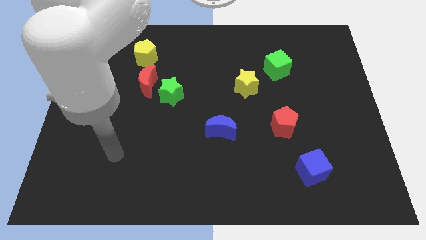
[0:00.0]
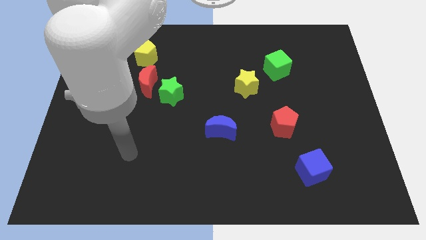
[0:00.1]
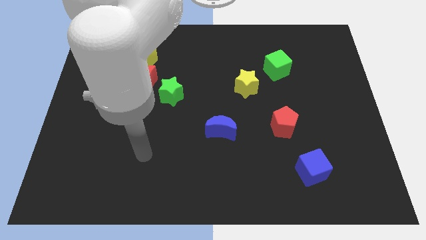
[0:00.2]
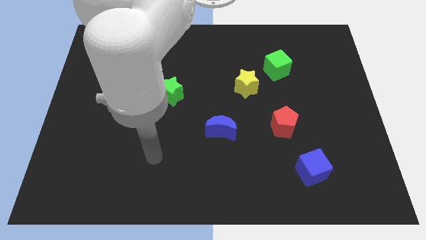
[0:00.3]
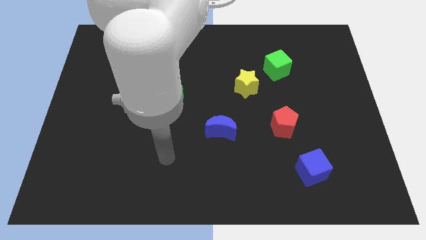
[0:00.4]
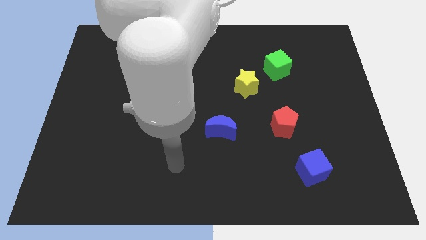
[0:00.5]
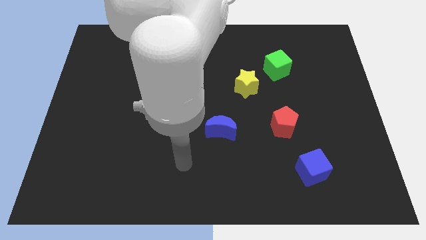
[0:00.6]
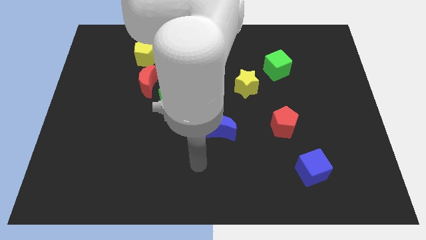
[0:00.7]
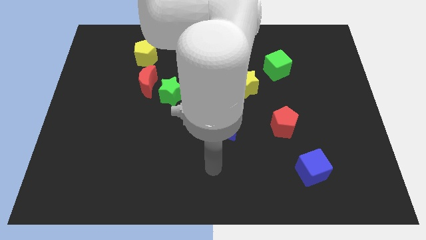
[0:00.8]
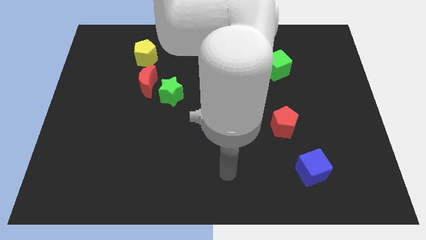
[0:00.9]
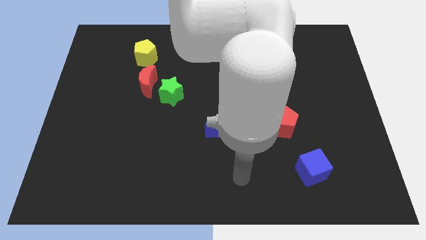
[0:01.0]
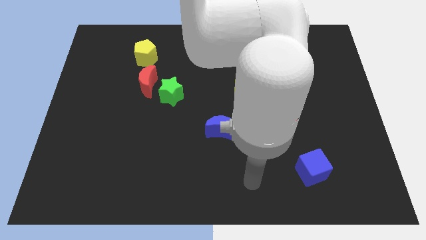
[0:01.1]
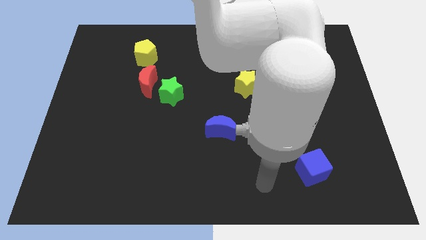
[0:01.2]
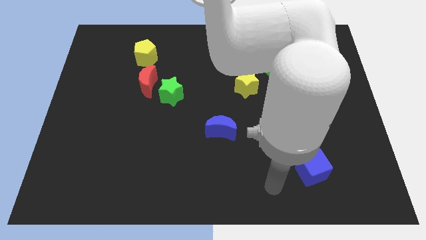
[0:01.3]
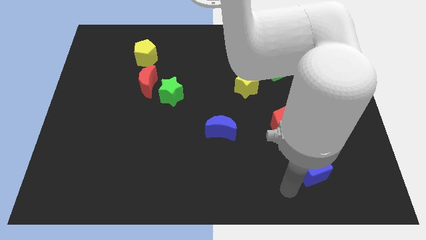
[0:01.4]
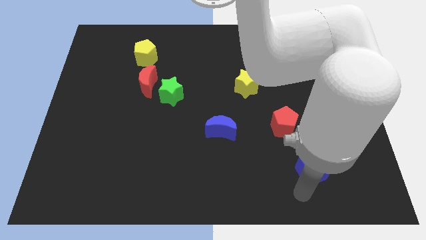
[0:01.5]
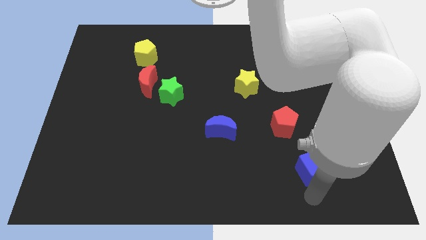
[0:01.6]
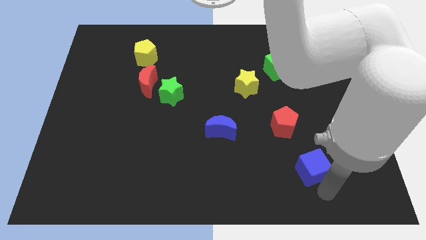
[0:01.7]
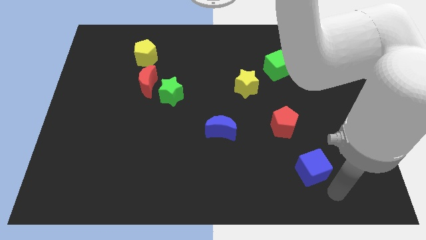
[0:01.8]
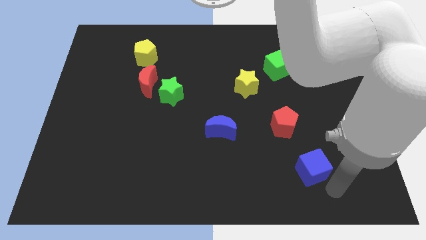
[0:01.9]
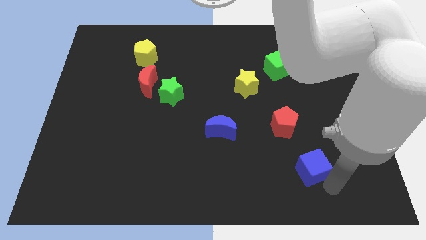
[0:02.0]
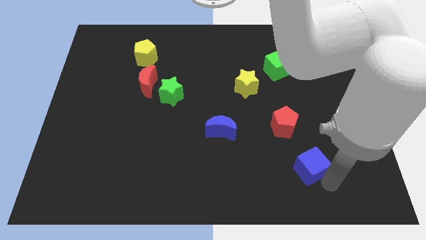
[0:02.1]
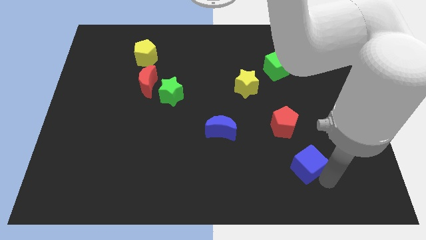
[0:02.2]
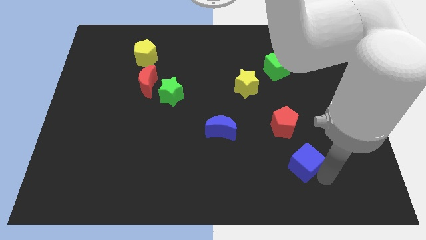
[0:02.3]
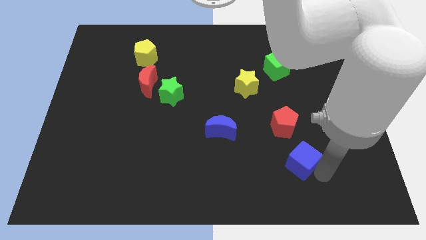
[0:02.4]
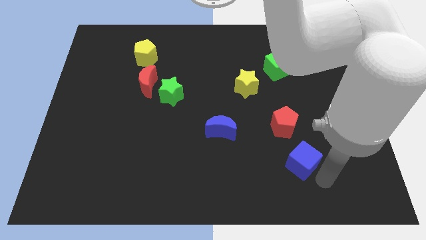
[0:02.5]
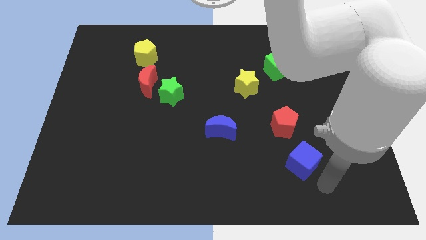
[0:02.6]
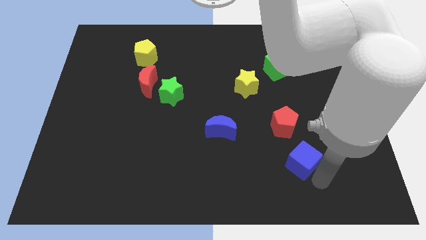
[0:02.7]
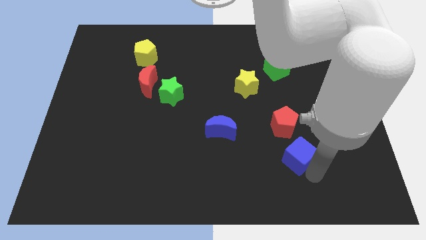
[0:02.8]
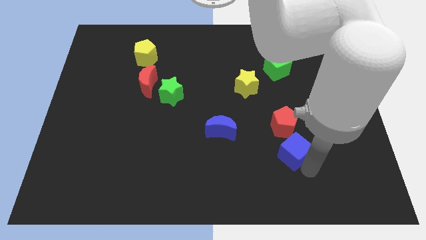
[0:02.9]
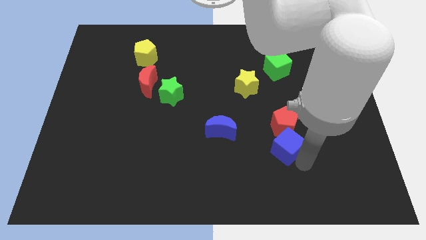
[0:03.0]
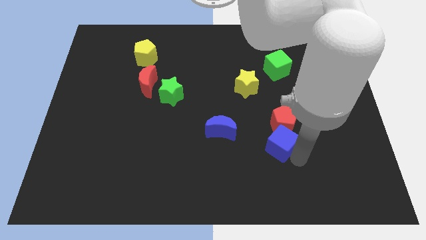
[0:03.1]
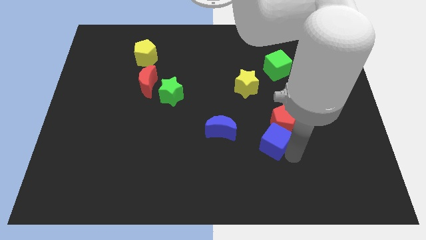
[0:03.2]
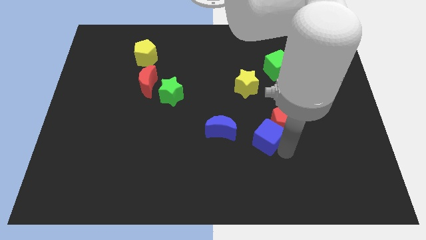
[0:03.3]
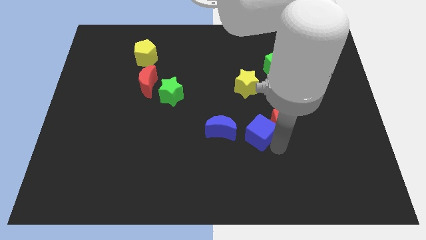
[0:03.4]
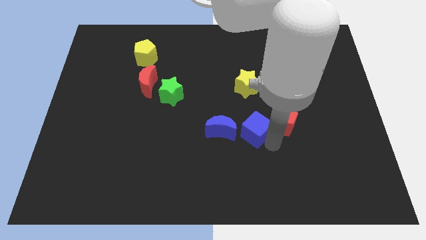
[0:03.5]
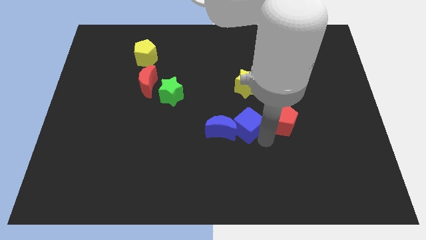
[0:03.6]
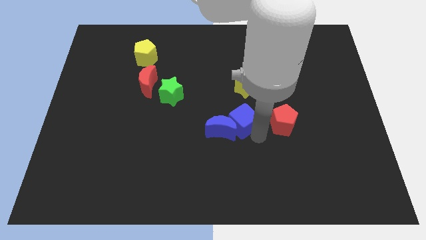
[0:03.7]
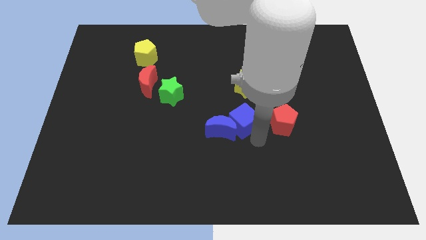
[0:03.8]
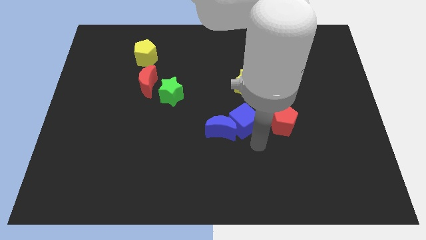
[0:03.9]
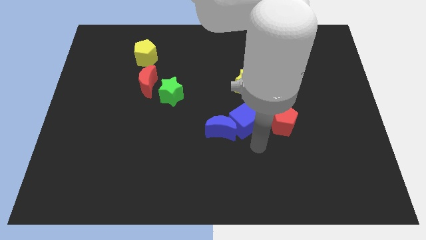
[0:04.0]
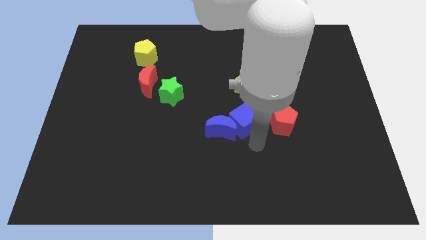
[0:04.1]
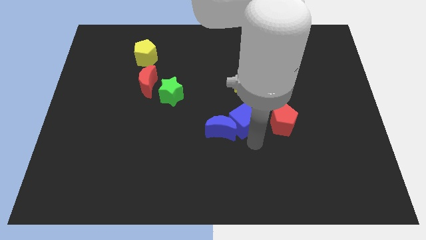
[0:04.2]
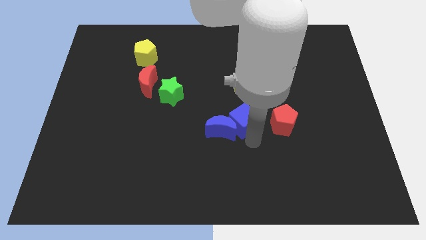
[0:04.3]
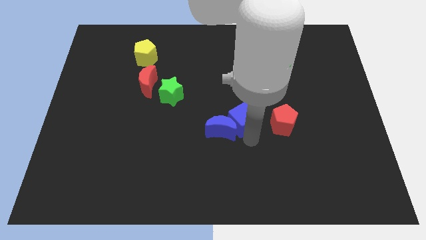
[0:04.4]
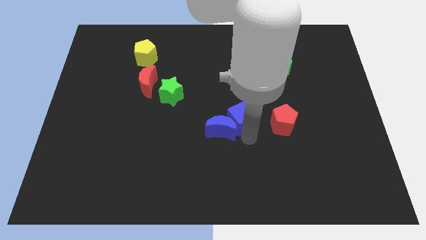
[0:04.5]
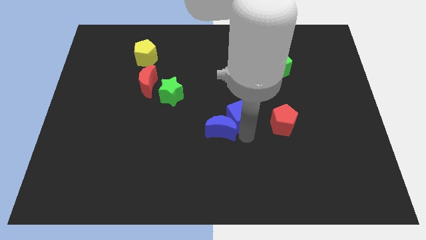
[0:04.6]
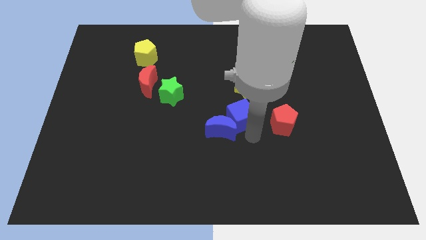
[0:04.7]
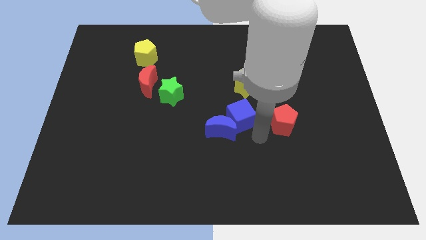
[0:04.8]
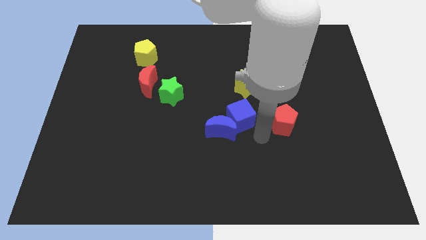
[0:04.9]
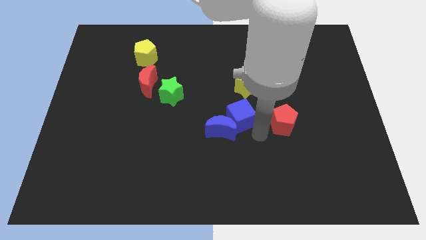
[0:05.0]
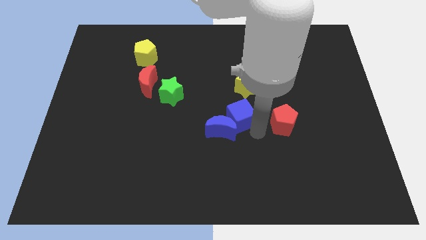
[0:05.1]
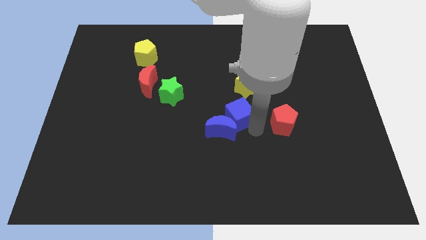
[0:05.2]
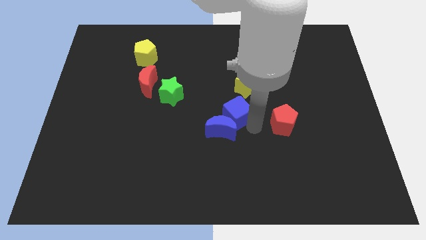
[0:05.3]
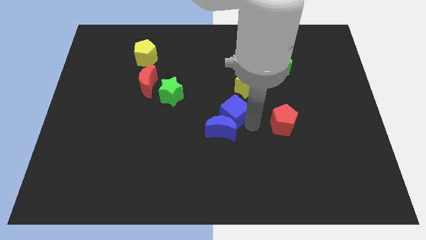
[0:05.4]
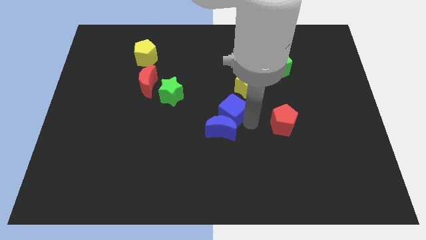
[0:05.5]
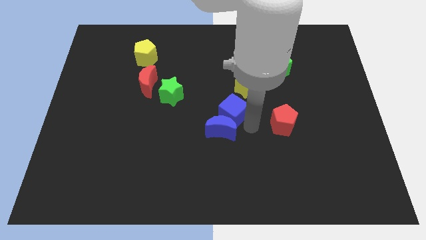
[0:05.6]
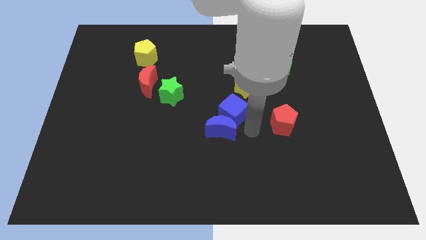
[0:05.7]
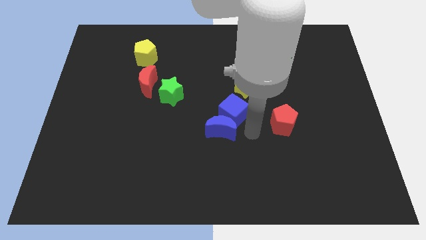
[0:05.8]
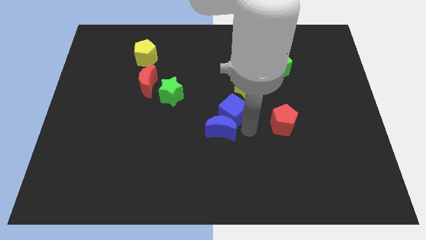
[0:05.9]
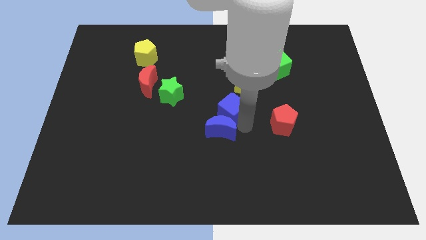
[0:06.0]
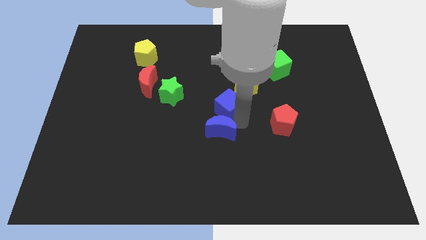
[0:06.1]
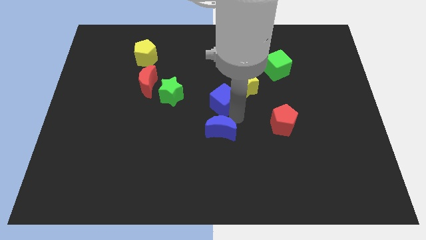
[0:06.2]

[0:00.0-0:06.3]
push the blue cube to the right of the green star
